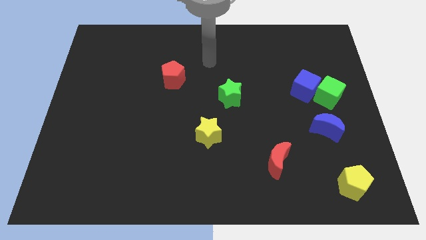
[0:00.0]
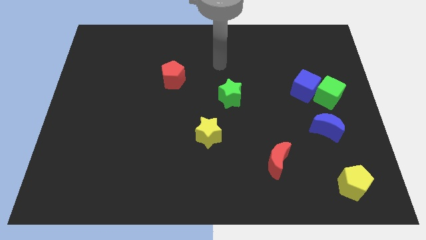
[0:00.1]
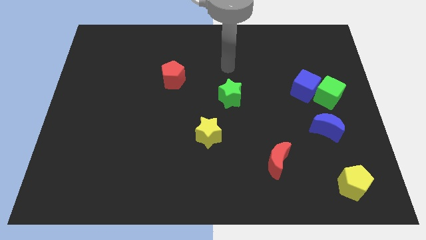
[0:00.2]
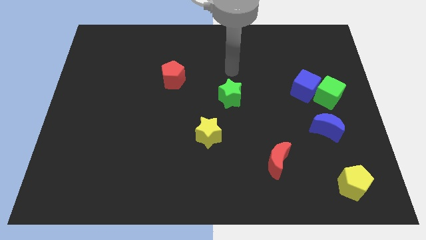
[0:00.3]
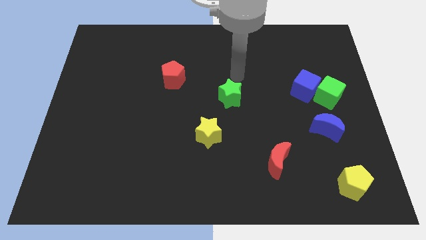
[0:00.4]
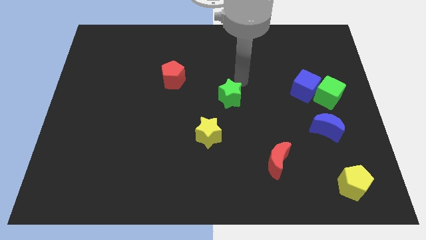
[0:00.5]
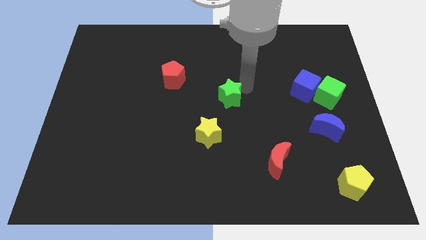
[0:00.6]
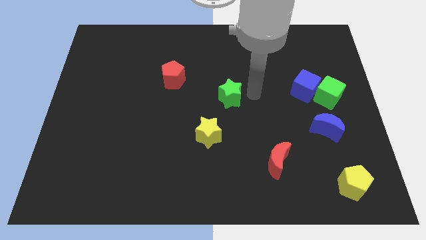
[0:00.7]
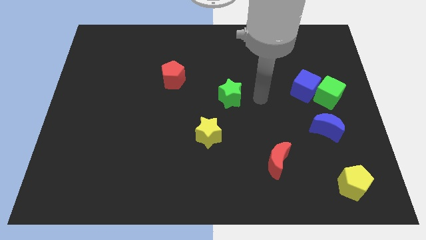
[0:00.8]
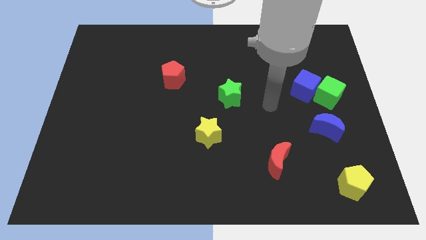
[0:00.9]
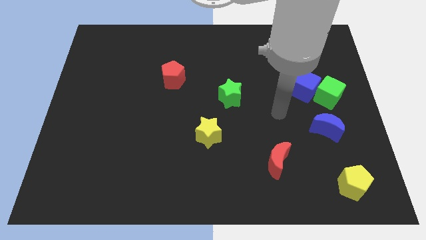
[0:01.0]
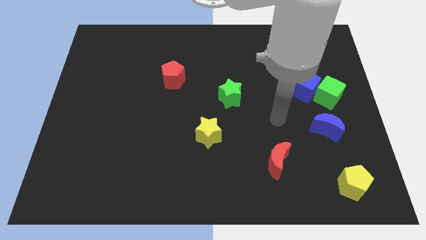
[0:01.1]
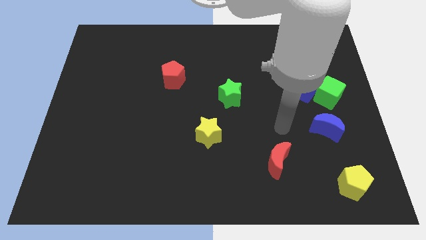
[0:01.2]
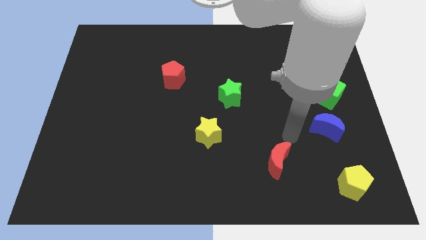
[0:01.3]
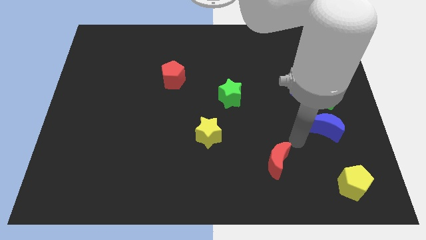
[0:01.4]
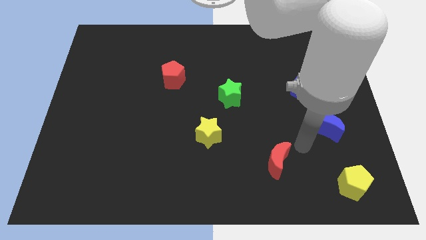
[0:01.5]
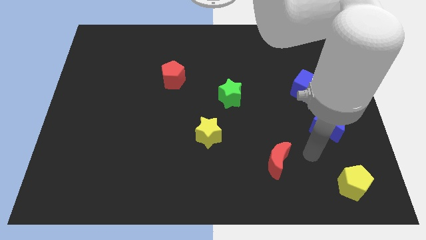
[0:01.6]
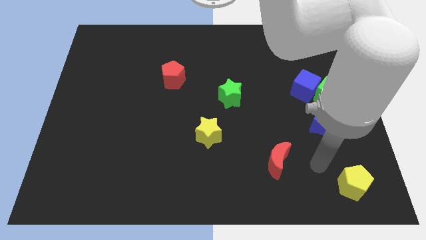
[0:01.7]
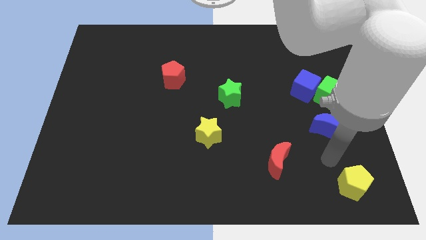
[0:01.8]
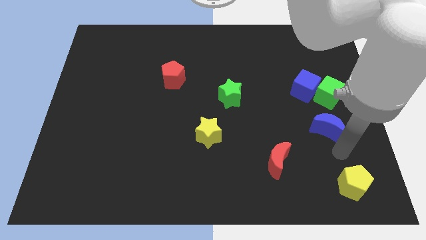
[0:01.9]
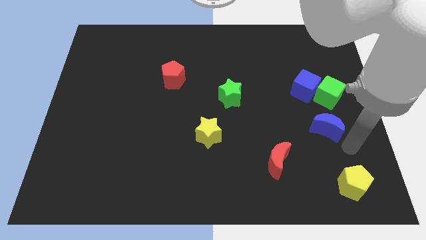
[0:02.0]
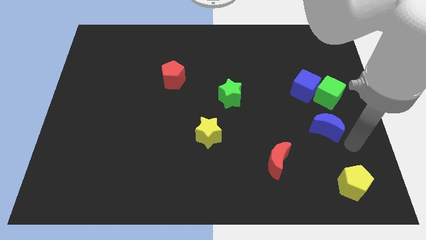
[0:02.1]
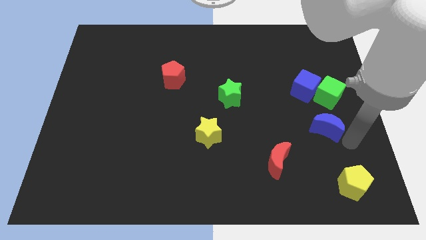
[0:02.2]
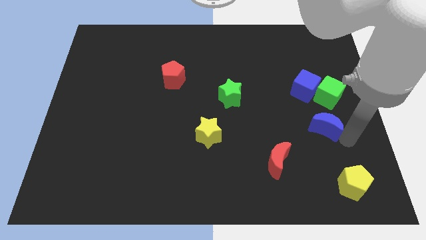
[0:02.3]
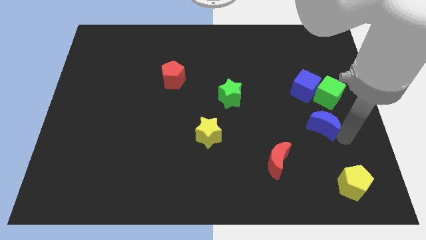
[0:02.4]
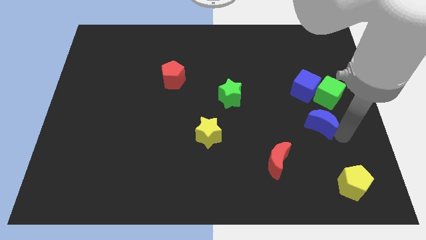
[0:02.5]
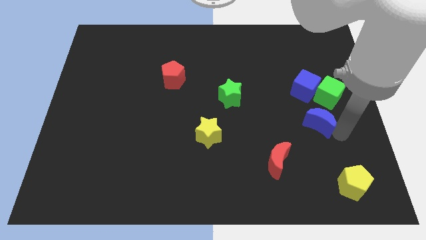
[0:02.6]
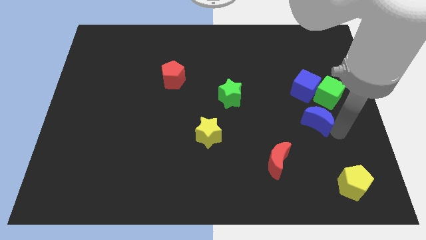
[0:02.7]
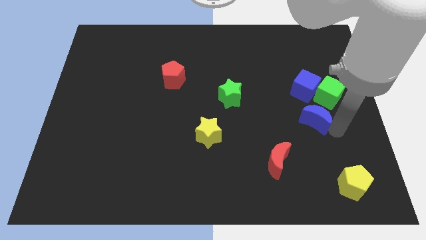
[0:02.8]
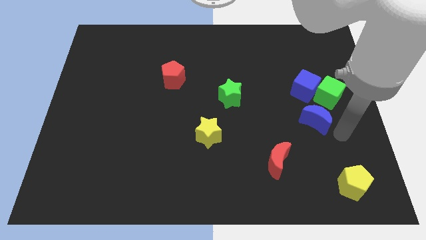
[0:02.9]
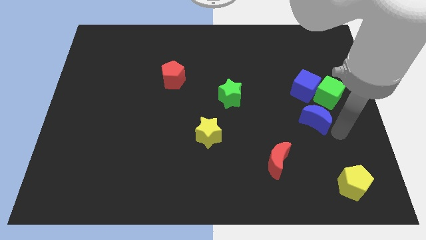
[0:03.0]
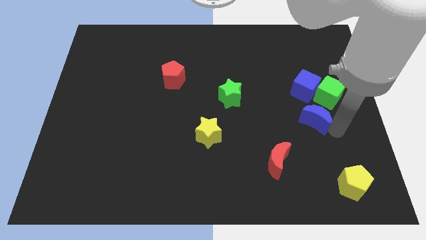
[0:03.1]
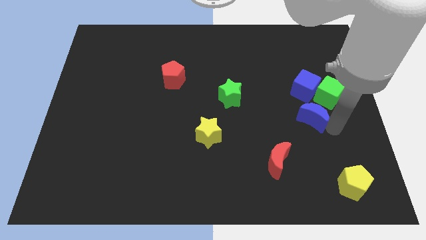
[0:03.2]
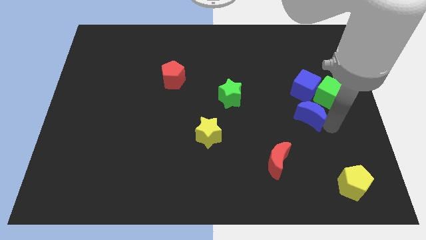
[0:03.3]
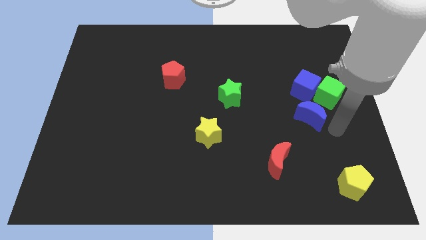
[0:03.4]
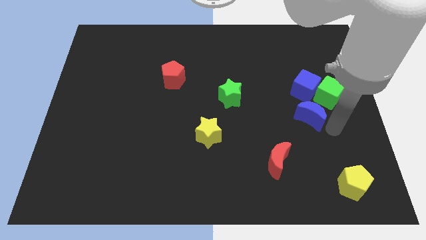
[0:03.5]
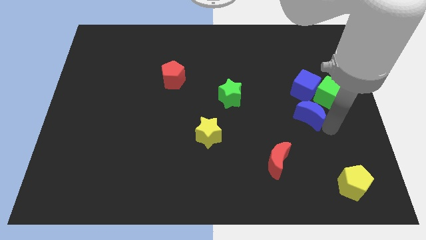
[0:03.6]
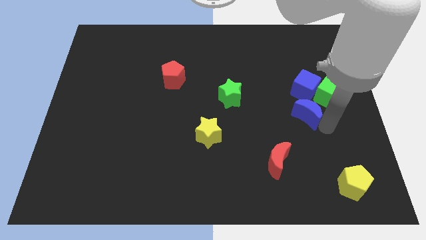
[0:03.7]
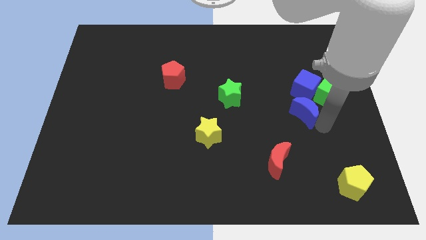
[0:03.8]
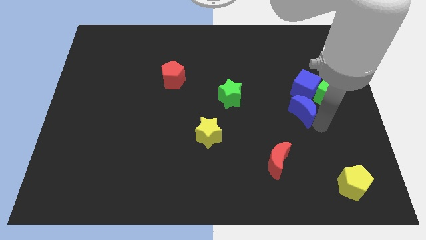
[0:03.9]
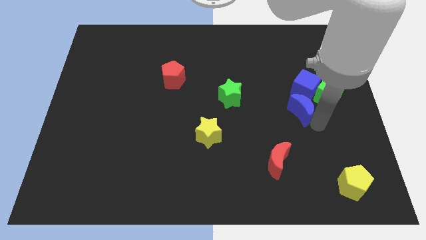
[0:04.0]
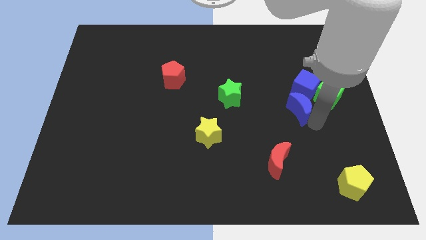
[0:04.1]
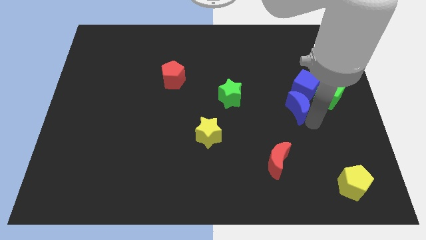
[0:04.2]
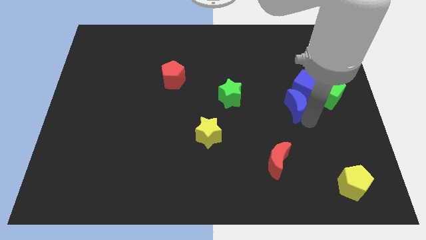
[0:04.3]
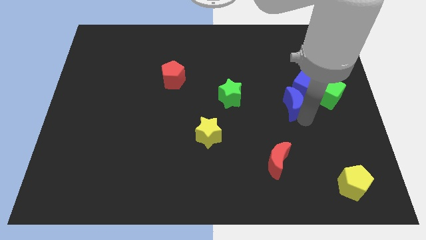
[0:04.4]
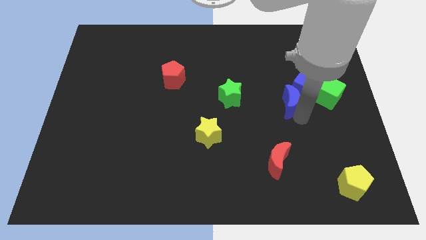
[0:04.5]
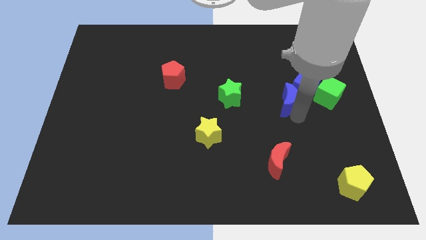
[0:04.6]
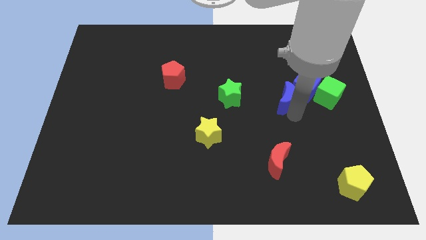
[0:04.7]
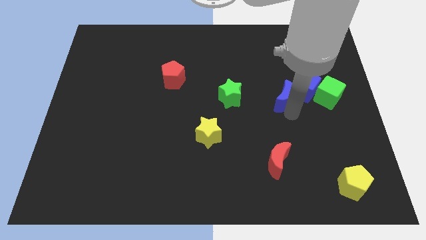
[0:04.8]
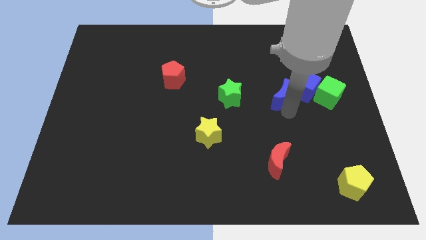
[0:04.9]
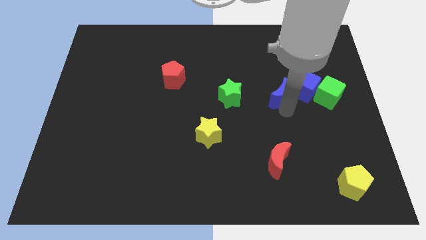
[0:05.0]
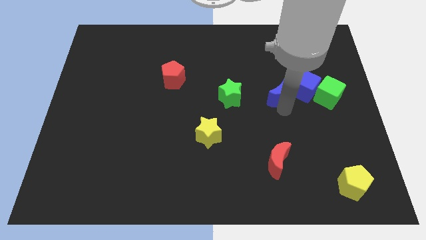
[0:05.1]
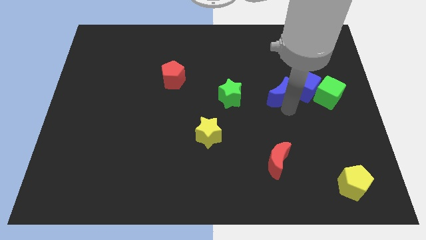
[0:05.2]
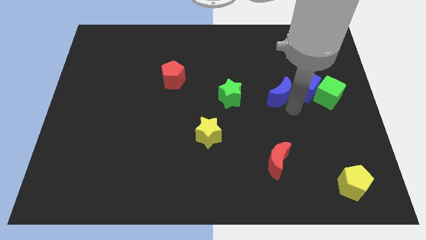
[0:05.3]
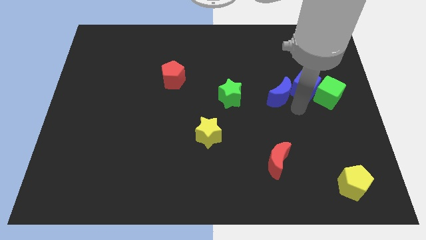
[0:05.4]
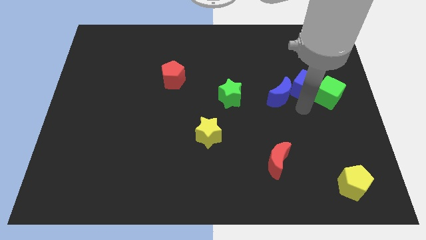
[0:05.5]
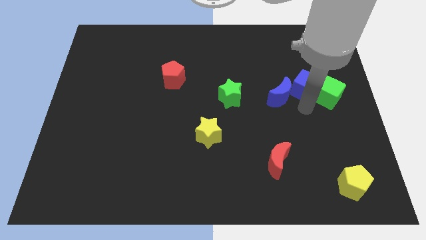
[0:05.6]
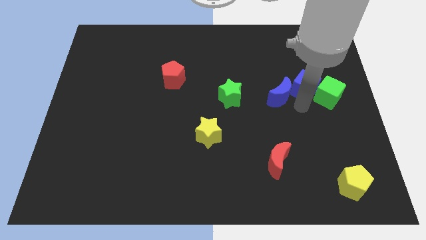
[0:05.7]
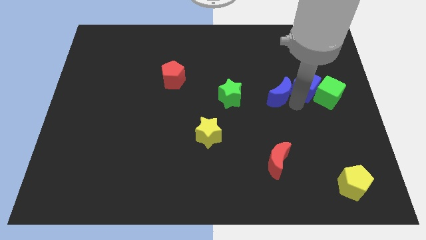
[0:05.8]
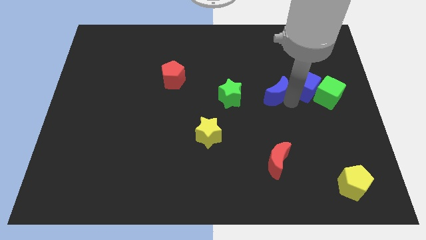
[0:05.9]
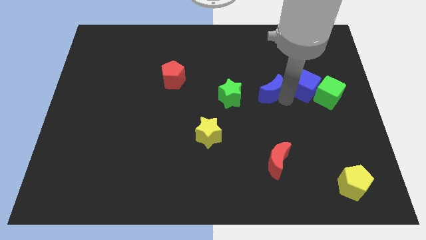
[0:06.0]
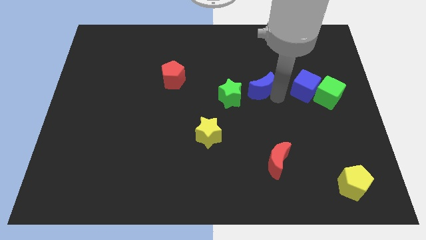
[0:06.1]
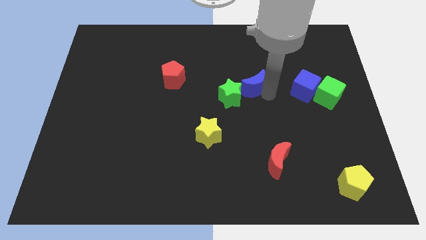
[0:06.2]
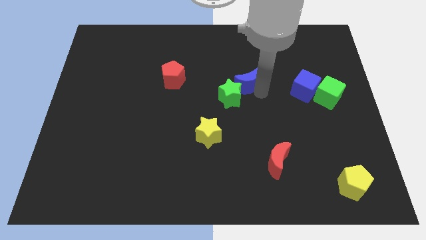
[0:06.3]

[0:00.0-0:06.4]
push the blue moon upwards and left diagonally

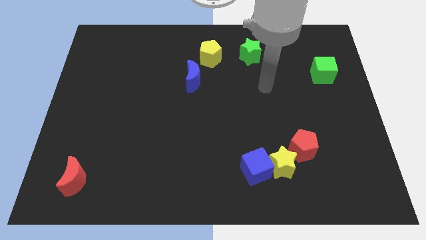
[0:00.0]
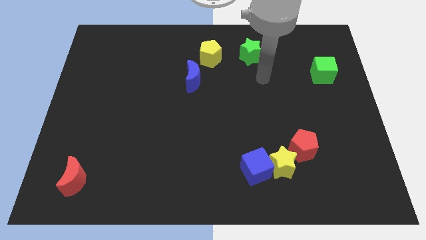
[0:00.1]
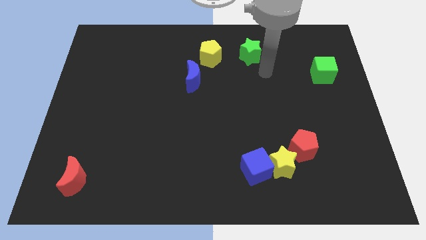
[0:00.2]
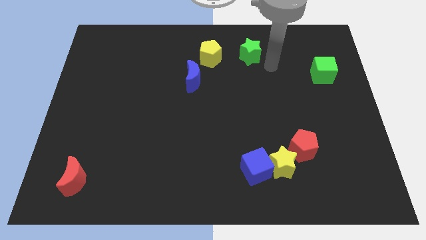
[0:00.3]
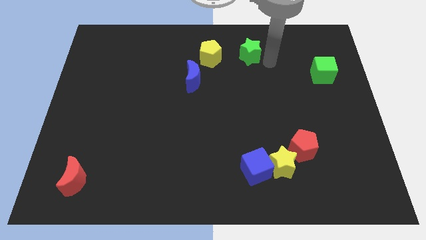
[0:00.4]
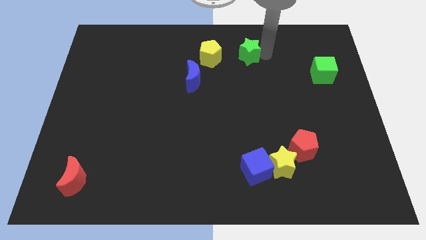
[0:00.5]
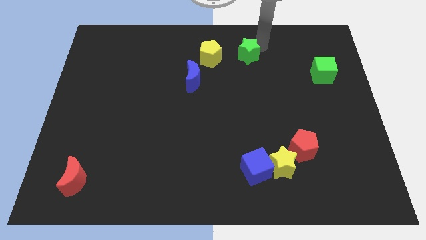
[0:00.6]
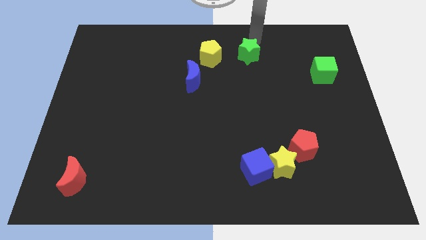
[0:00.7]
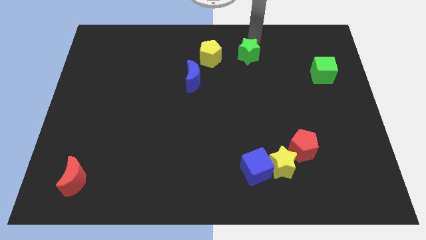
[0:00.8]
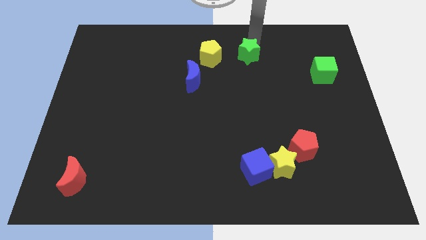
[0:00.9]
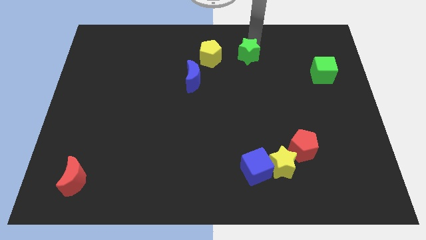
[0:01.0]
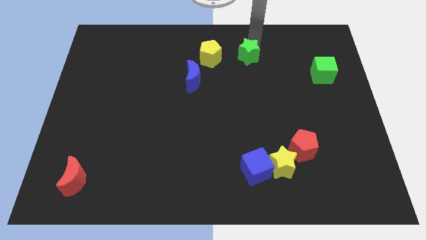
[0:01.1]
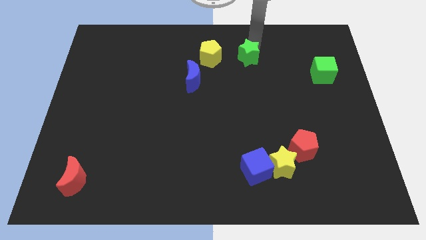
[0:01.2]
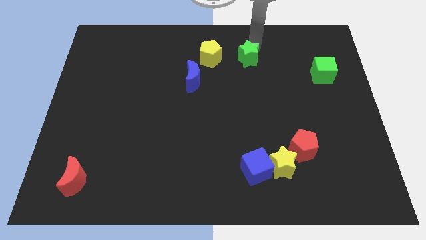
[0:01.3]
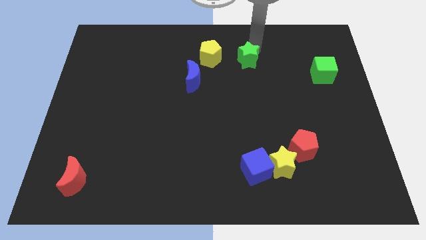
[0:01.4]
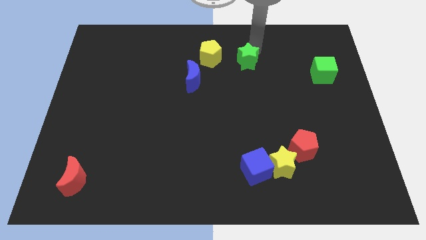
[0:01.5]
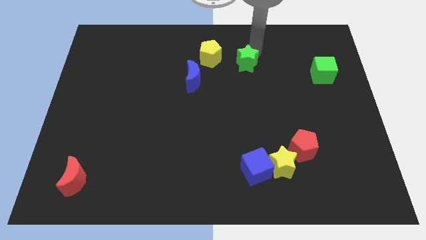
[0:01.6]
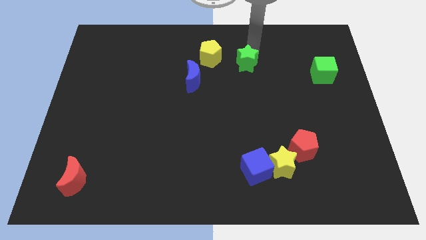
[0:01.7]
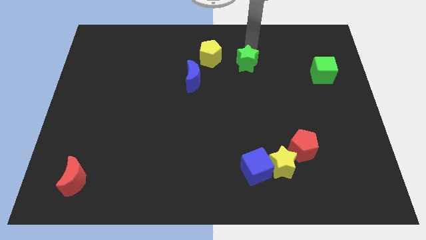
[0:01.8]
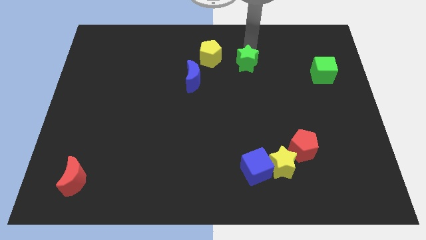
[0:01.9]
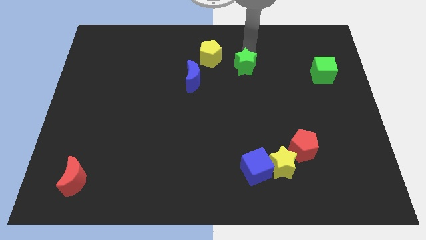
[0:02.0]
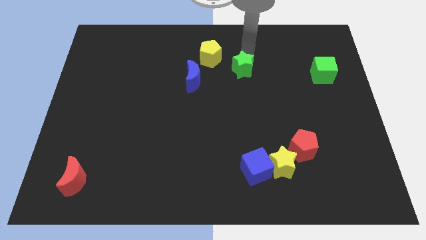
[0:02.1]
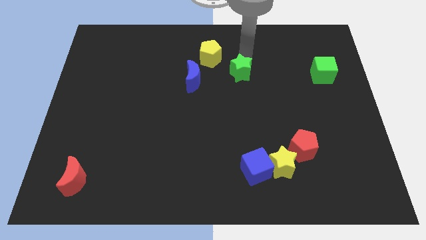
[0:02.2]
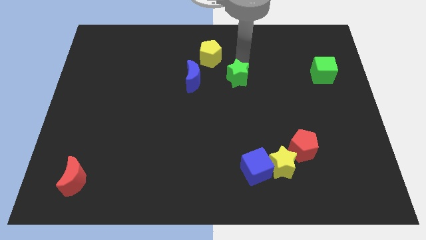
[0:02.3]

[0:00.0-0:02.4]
move the green star a bit down
